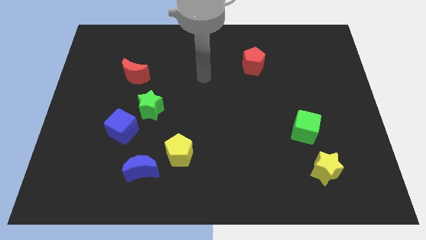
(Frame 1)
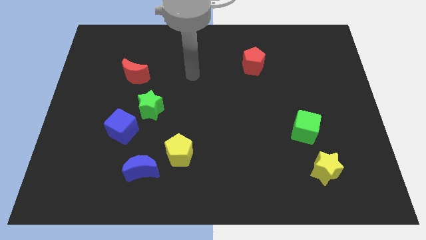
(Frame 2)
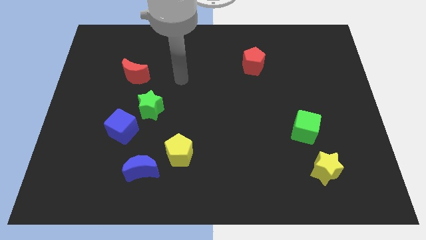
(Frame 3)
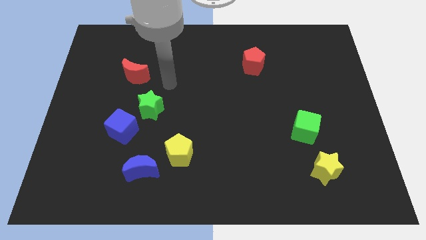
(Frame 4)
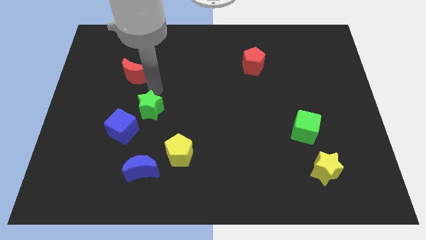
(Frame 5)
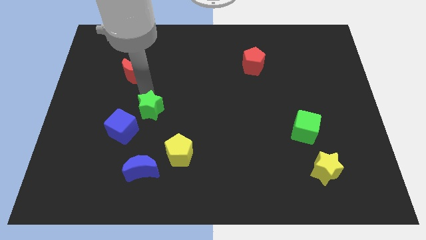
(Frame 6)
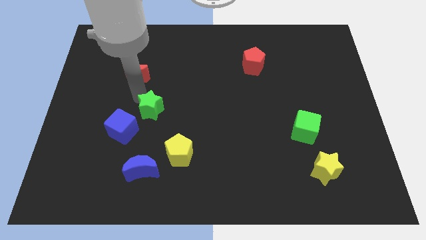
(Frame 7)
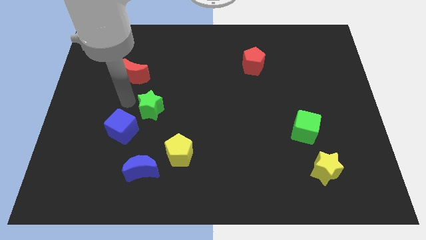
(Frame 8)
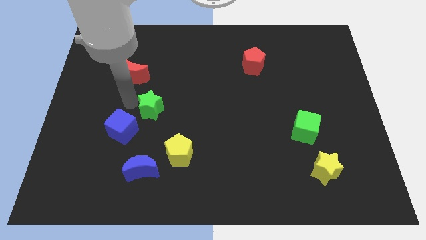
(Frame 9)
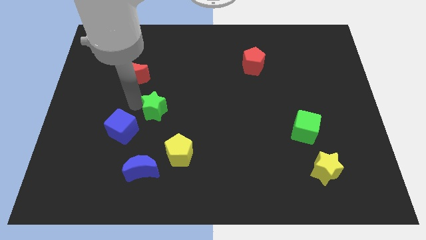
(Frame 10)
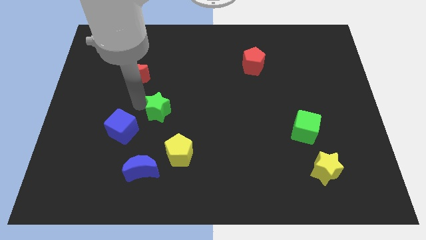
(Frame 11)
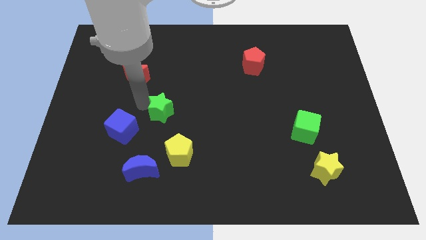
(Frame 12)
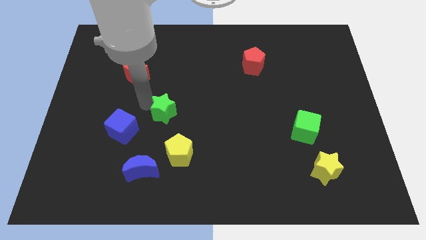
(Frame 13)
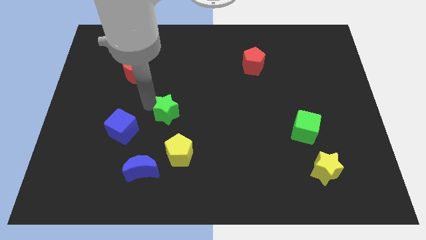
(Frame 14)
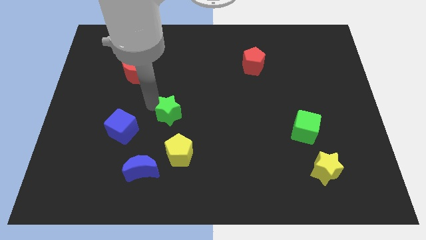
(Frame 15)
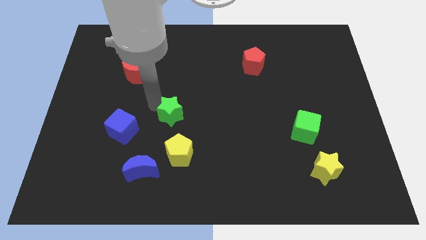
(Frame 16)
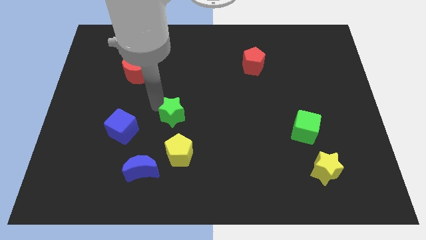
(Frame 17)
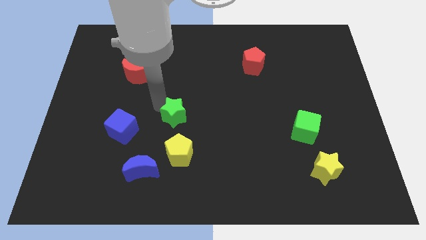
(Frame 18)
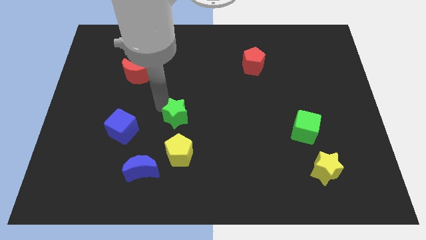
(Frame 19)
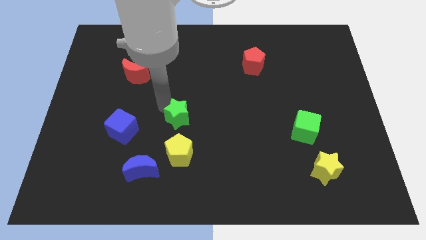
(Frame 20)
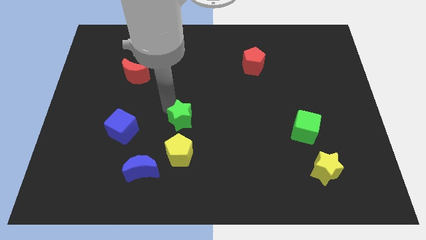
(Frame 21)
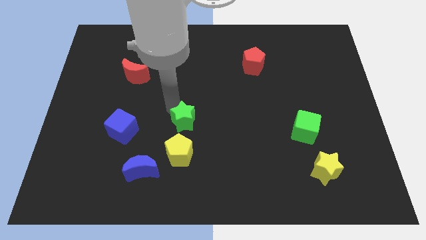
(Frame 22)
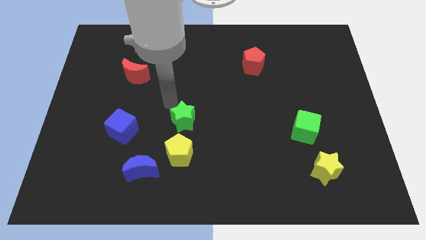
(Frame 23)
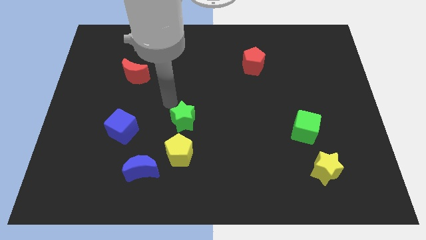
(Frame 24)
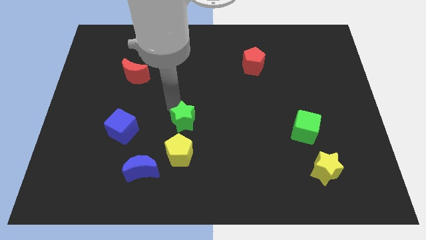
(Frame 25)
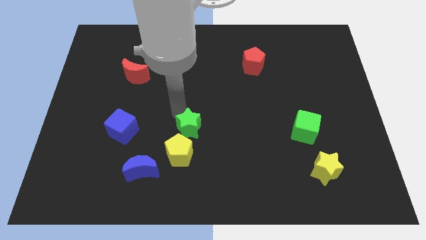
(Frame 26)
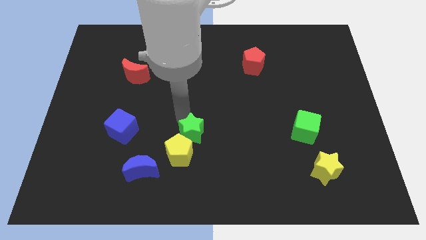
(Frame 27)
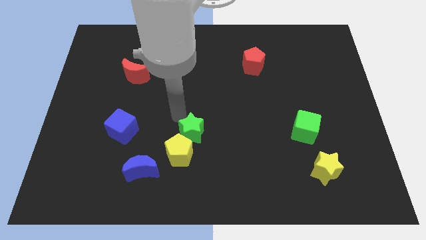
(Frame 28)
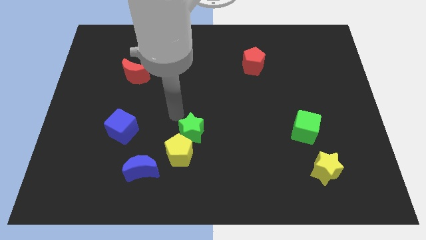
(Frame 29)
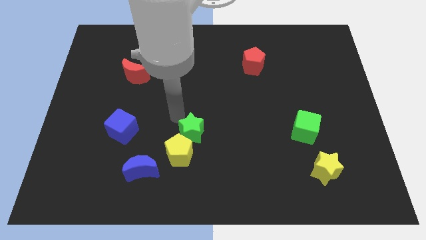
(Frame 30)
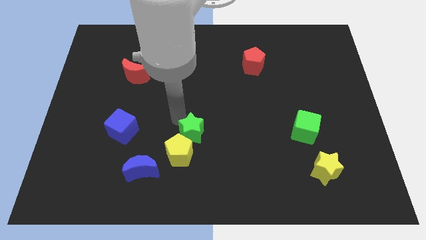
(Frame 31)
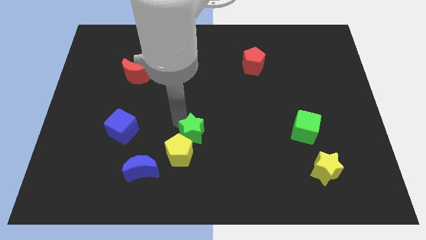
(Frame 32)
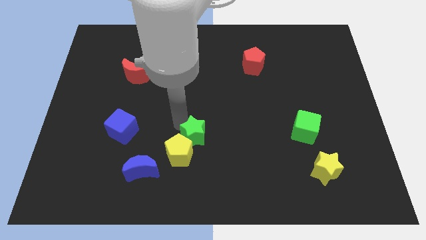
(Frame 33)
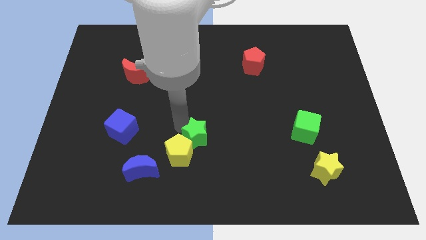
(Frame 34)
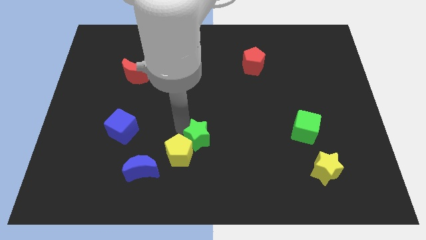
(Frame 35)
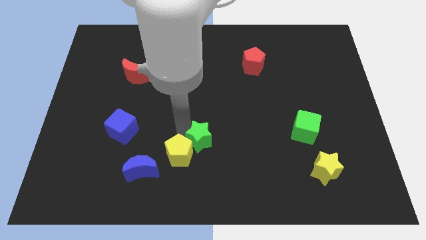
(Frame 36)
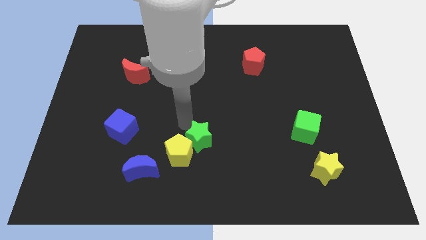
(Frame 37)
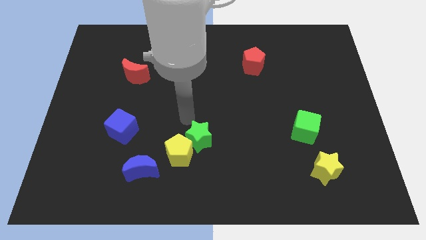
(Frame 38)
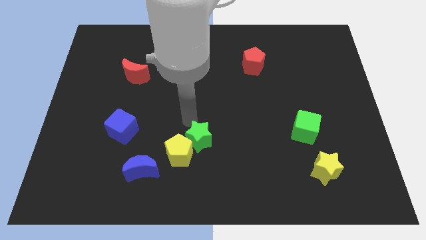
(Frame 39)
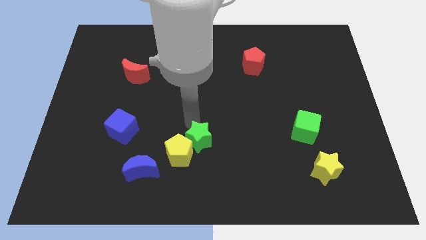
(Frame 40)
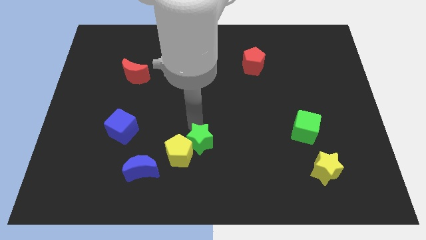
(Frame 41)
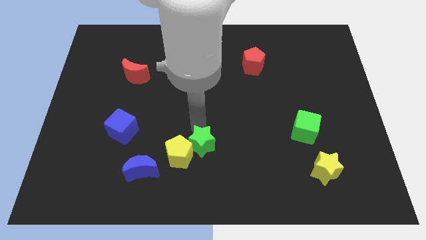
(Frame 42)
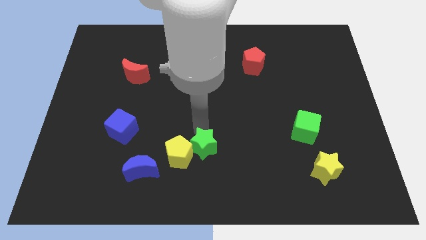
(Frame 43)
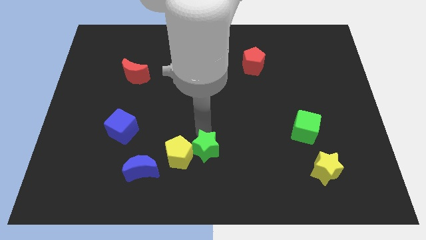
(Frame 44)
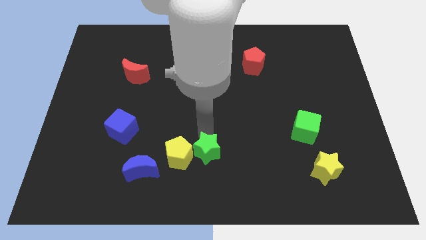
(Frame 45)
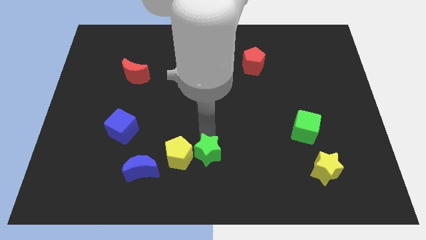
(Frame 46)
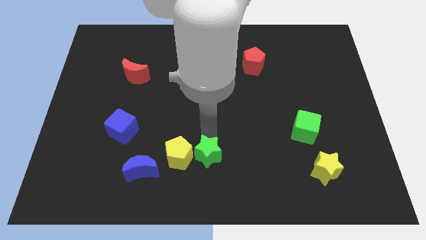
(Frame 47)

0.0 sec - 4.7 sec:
push the green star to the bottom

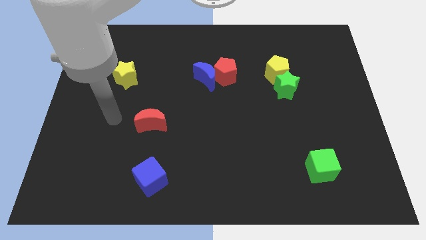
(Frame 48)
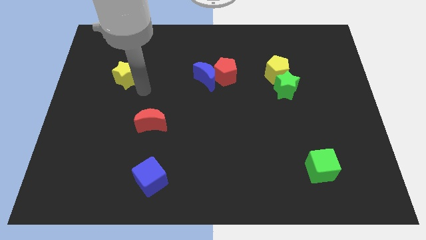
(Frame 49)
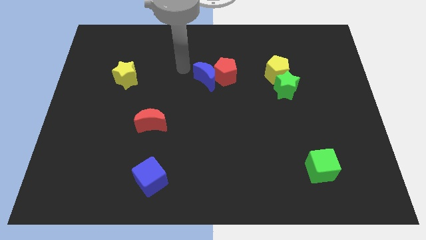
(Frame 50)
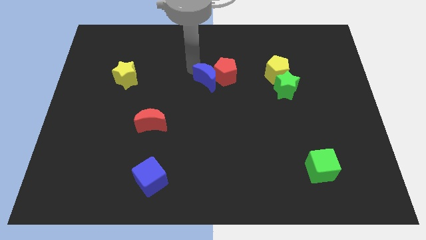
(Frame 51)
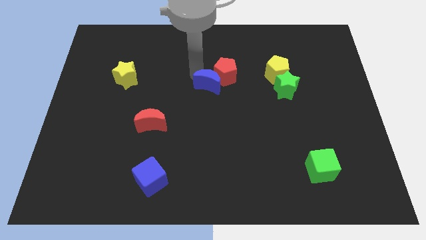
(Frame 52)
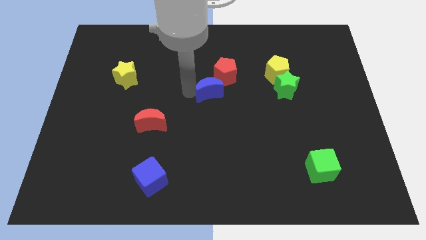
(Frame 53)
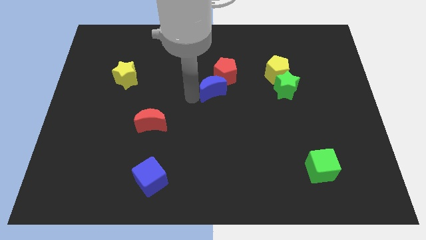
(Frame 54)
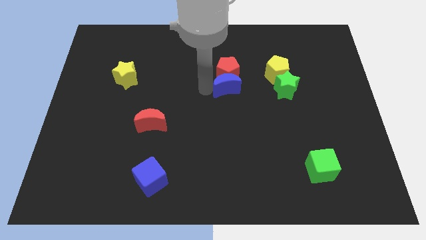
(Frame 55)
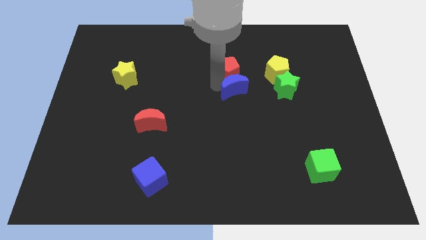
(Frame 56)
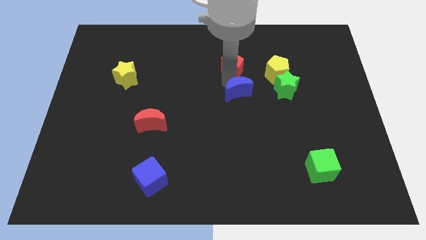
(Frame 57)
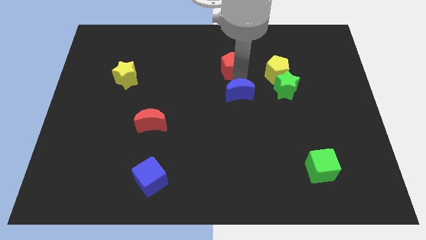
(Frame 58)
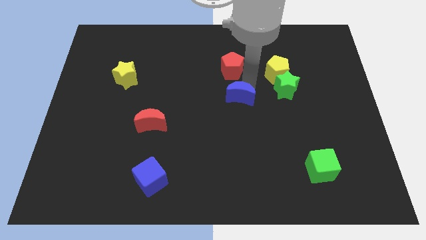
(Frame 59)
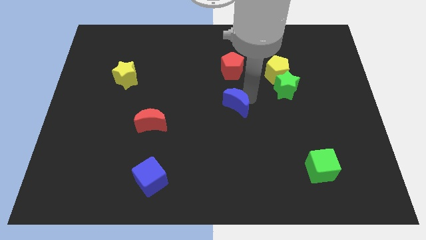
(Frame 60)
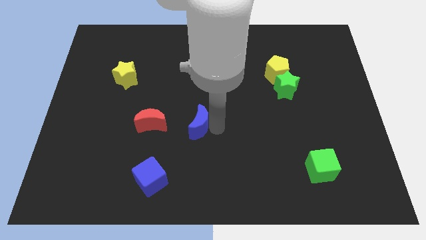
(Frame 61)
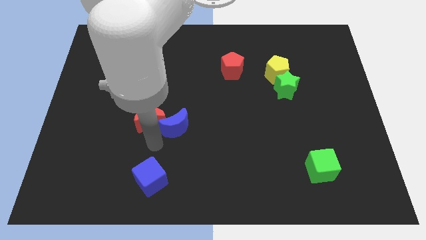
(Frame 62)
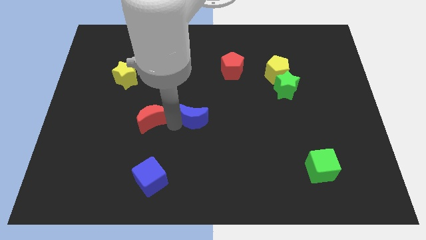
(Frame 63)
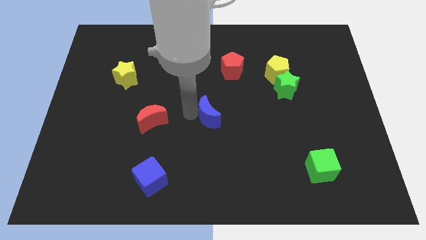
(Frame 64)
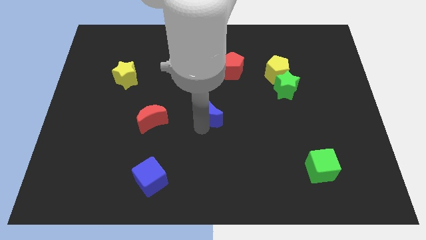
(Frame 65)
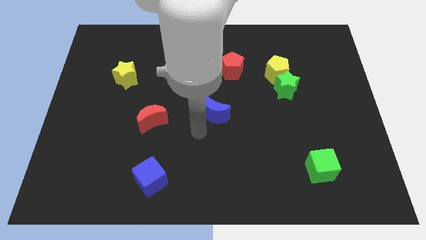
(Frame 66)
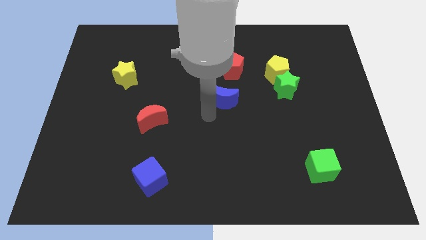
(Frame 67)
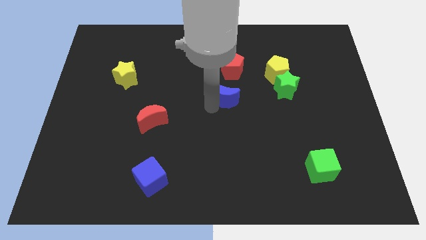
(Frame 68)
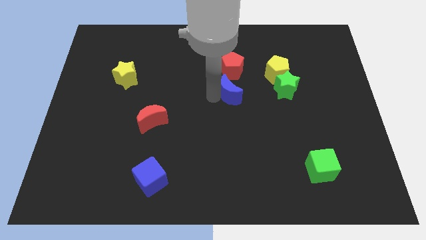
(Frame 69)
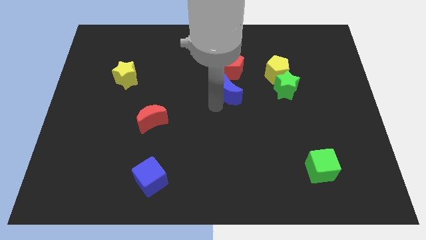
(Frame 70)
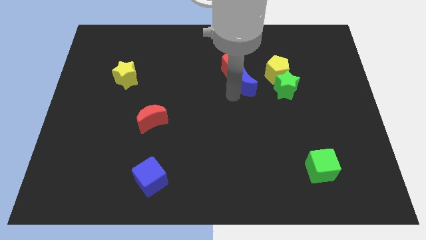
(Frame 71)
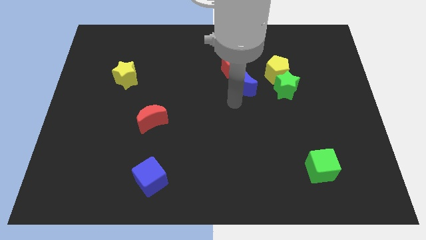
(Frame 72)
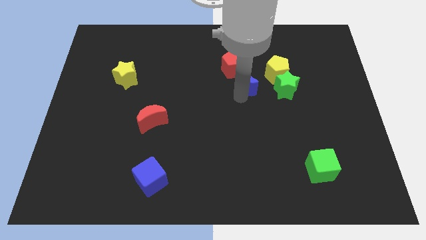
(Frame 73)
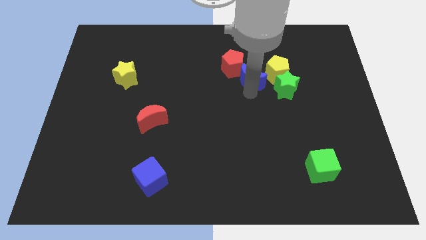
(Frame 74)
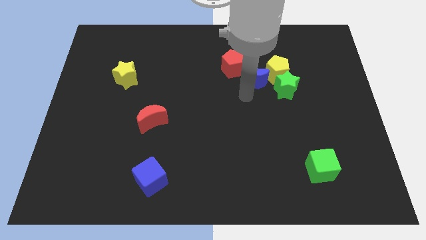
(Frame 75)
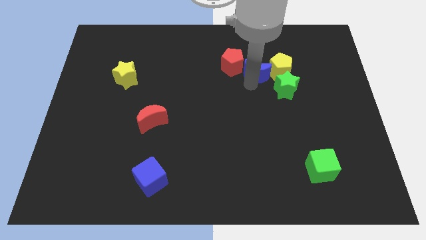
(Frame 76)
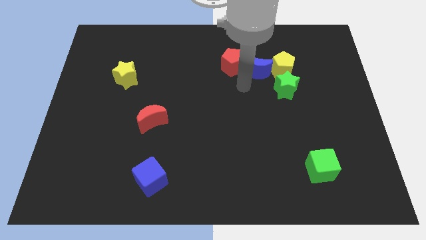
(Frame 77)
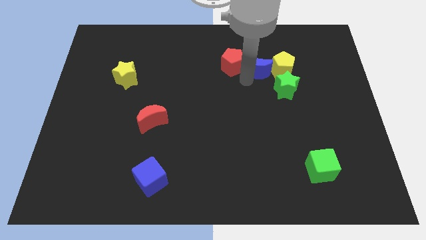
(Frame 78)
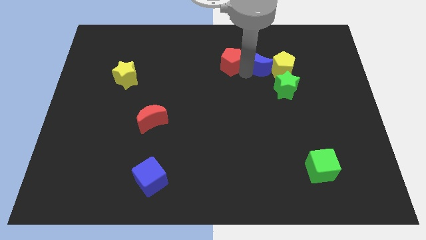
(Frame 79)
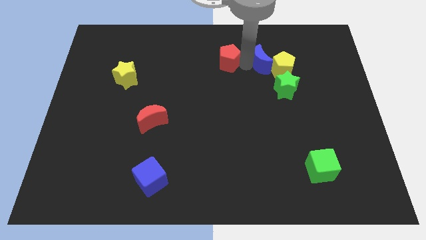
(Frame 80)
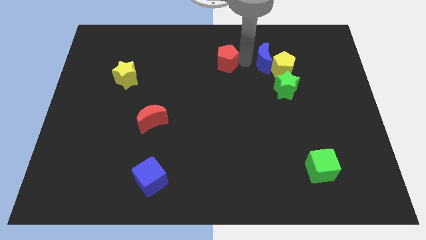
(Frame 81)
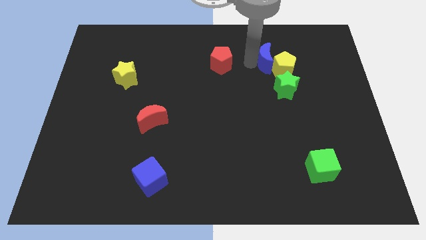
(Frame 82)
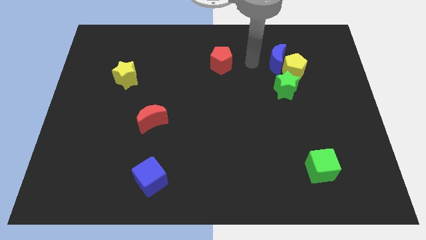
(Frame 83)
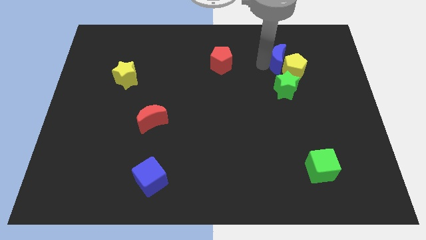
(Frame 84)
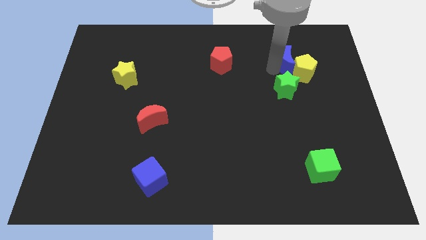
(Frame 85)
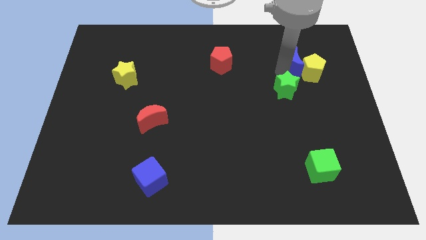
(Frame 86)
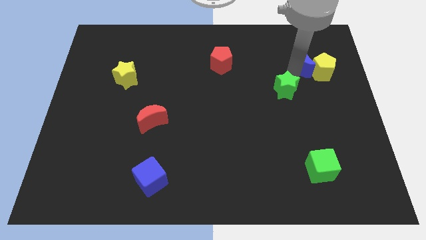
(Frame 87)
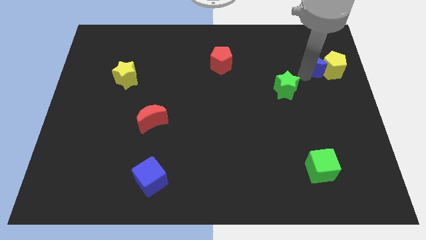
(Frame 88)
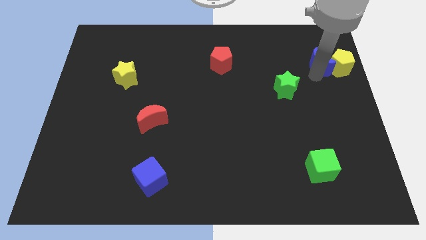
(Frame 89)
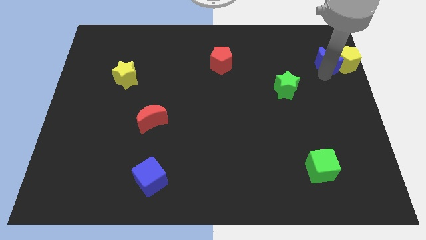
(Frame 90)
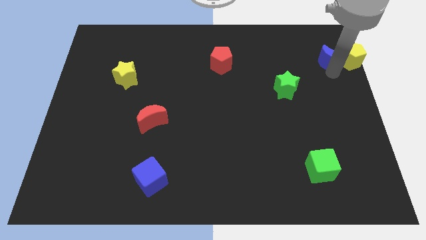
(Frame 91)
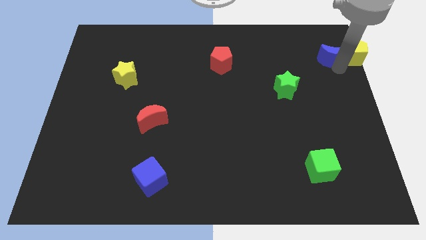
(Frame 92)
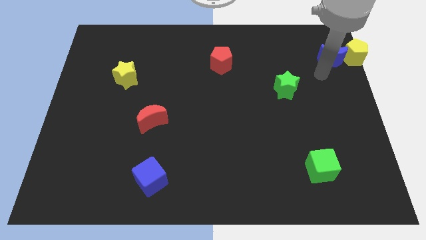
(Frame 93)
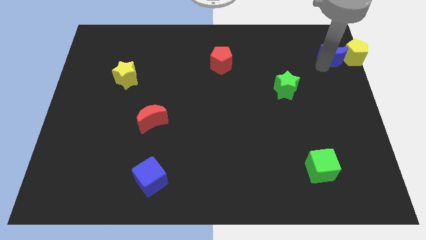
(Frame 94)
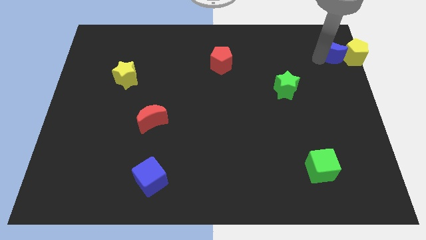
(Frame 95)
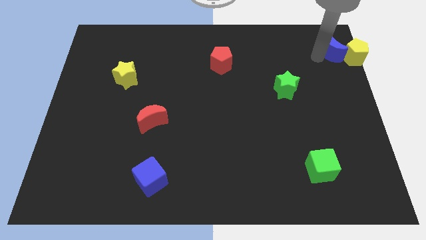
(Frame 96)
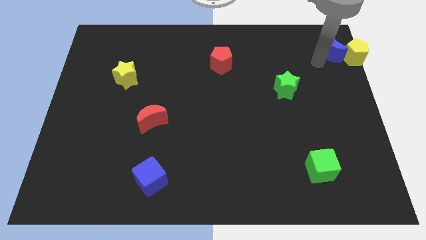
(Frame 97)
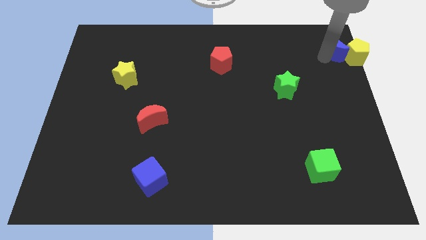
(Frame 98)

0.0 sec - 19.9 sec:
push the blue moon to the upper right corner
